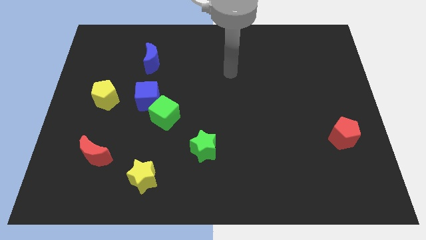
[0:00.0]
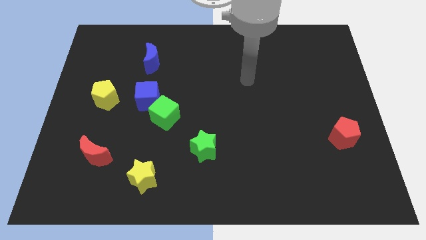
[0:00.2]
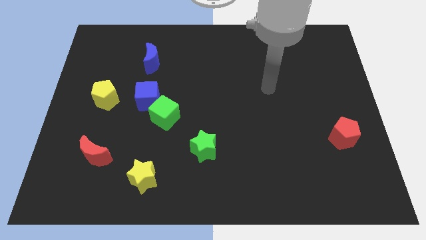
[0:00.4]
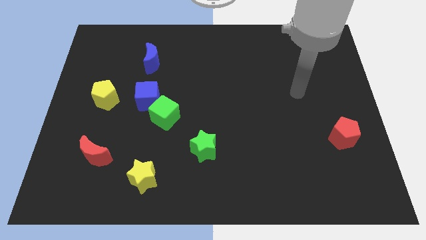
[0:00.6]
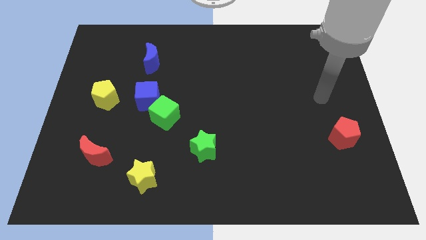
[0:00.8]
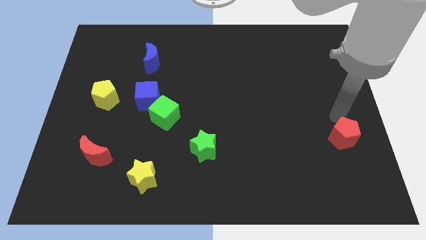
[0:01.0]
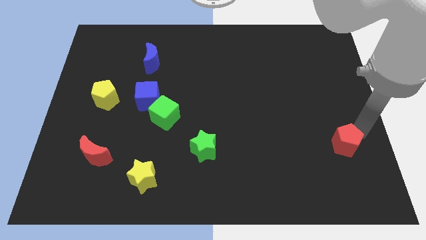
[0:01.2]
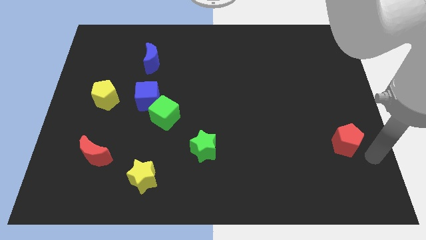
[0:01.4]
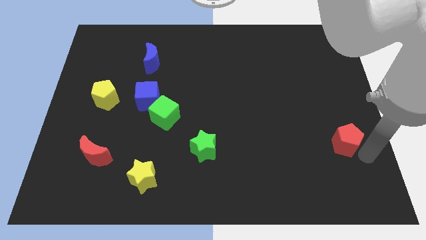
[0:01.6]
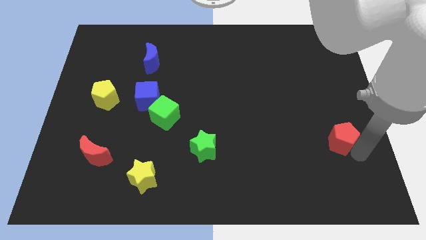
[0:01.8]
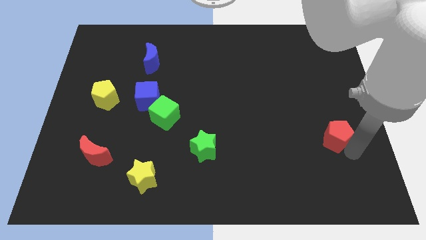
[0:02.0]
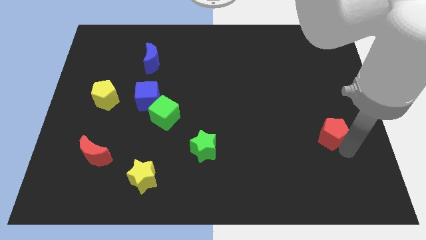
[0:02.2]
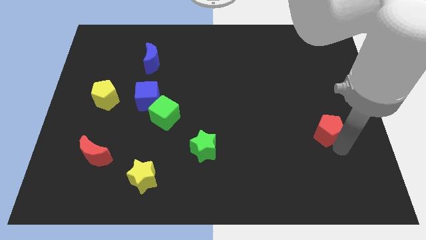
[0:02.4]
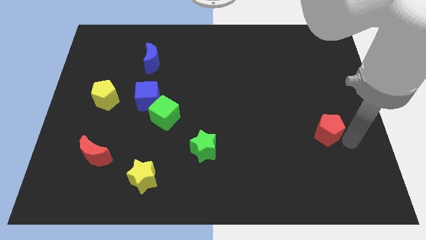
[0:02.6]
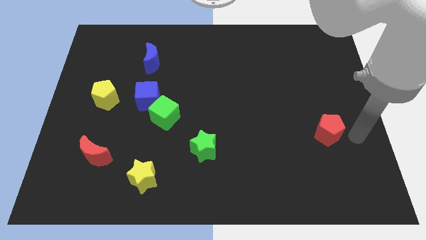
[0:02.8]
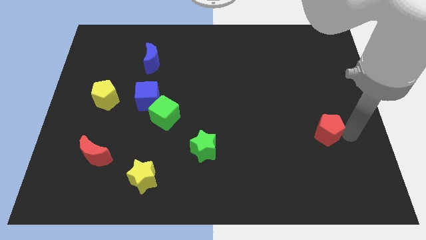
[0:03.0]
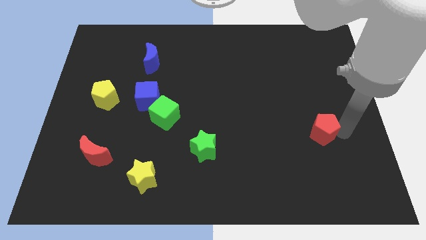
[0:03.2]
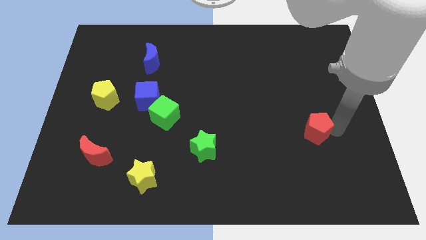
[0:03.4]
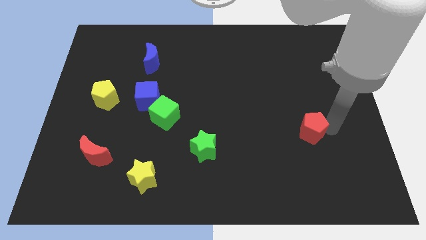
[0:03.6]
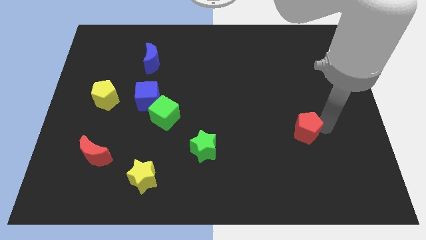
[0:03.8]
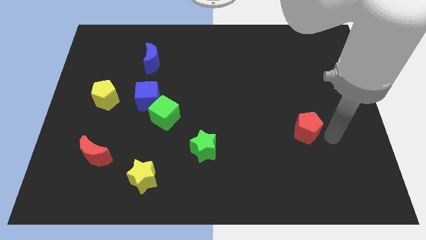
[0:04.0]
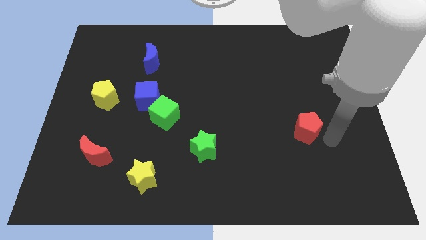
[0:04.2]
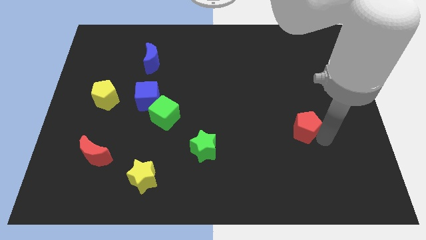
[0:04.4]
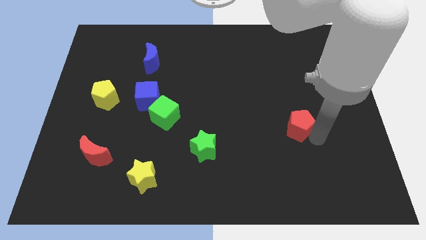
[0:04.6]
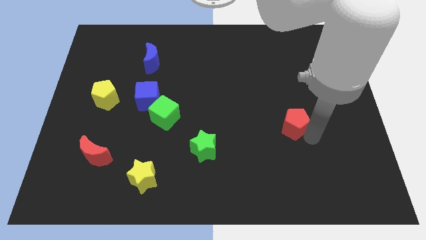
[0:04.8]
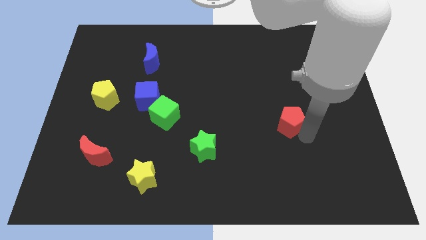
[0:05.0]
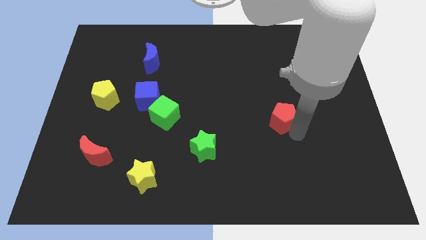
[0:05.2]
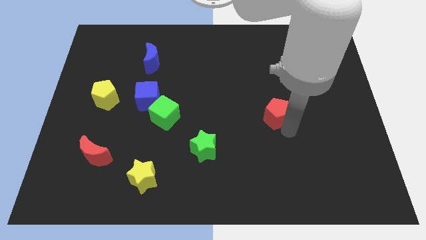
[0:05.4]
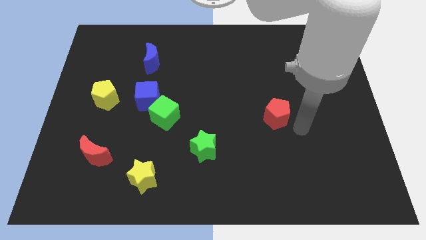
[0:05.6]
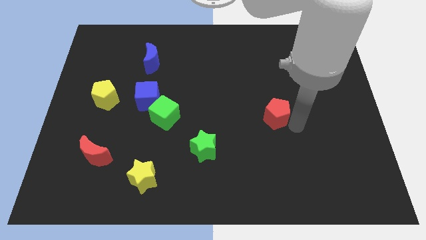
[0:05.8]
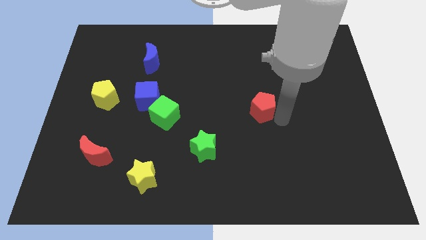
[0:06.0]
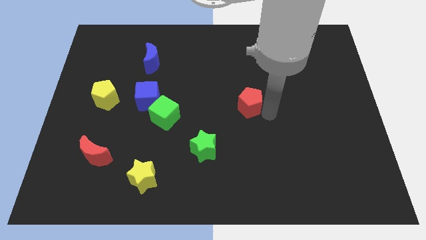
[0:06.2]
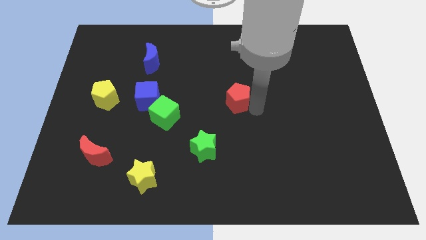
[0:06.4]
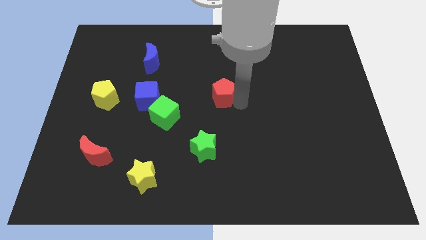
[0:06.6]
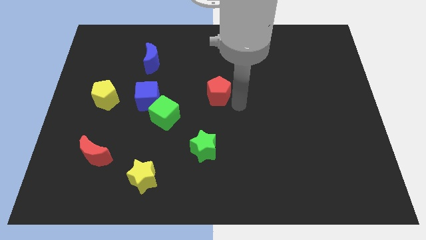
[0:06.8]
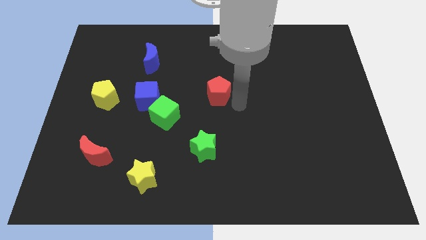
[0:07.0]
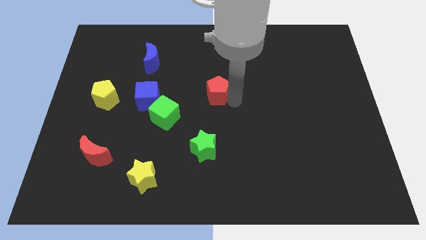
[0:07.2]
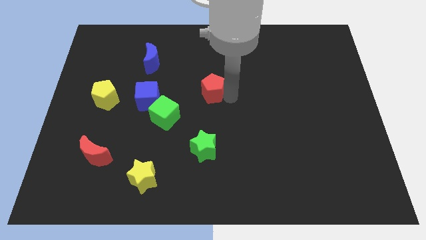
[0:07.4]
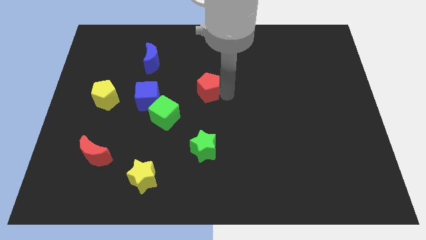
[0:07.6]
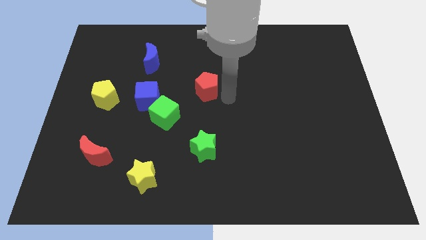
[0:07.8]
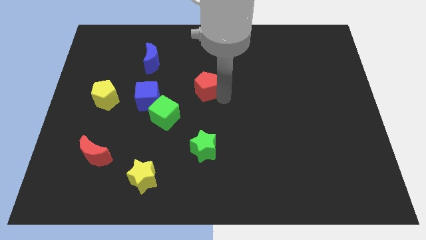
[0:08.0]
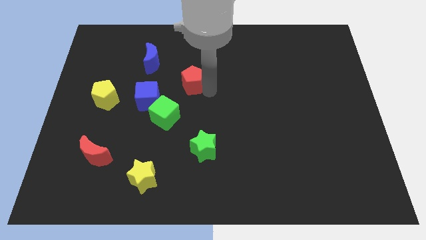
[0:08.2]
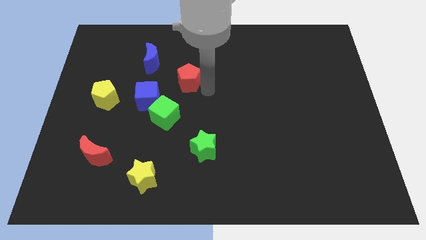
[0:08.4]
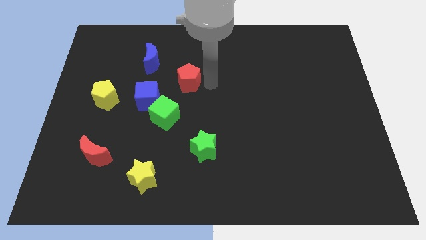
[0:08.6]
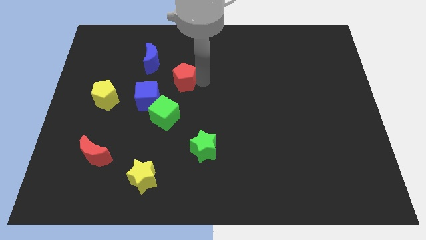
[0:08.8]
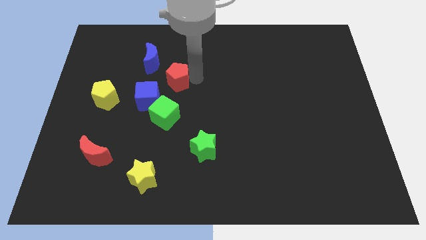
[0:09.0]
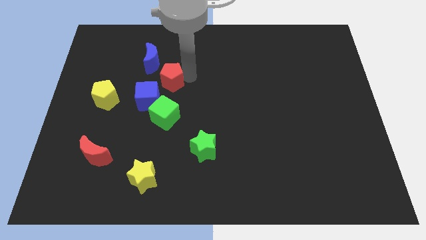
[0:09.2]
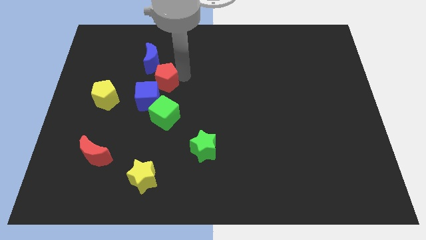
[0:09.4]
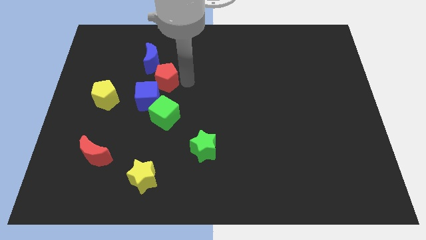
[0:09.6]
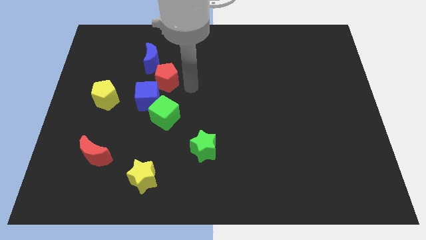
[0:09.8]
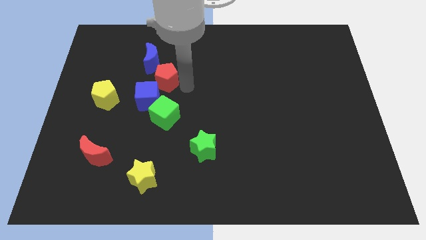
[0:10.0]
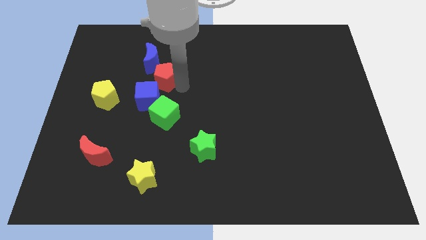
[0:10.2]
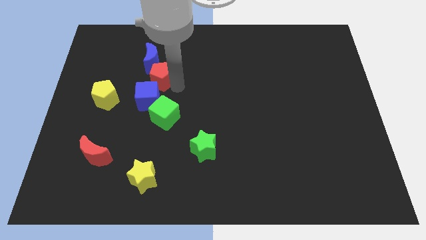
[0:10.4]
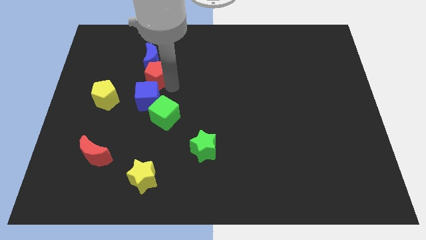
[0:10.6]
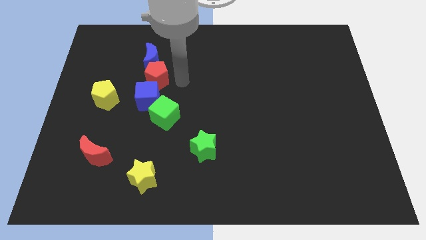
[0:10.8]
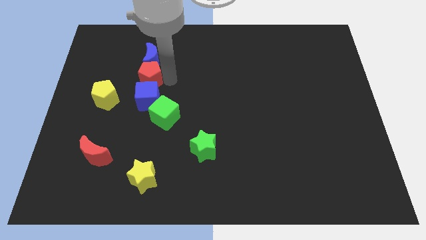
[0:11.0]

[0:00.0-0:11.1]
push the red pentagon to the bottom left side of the blue moon

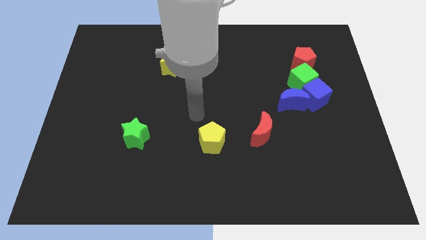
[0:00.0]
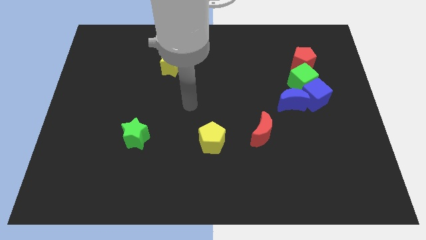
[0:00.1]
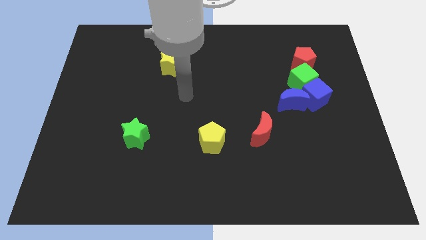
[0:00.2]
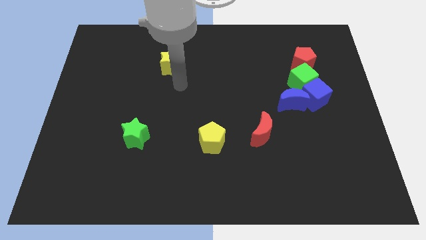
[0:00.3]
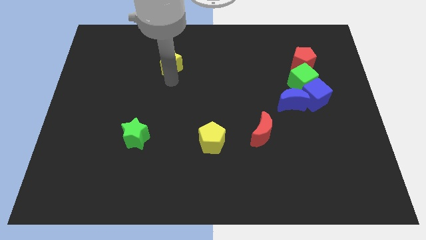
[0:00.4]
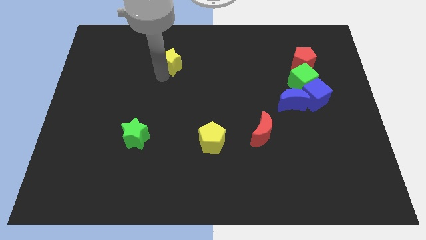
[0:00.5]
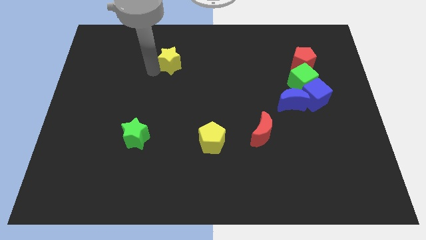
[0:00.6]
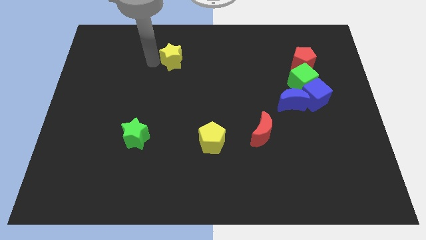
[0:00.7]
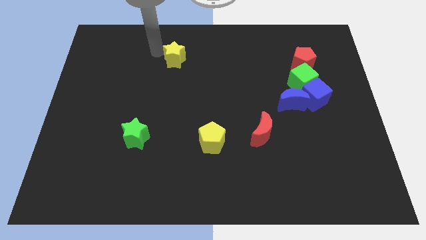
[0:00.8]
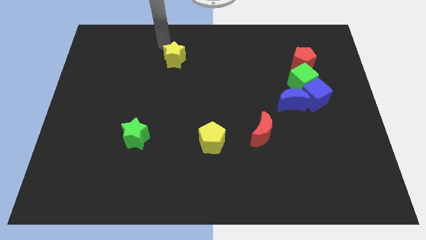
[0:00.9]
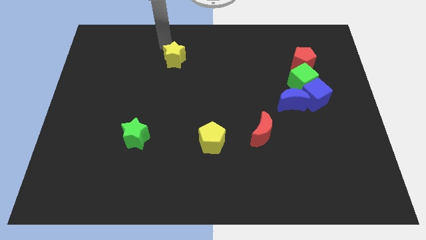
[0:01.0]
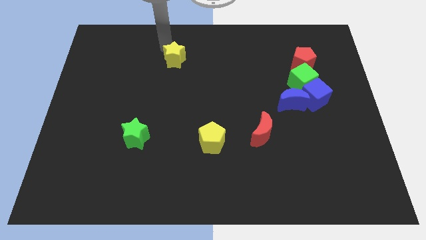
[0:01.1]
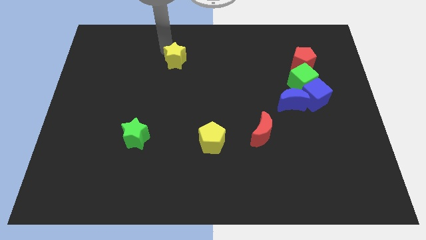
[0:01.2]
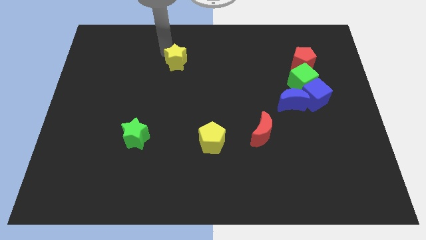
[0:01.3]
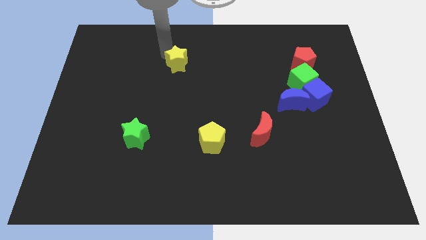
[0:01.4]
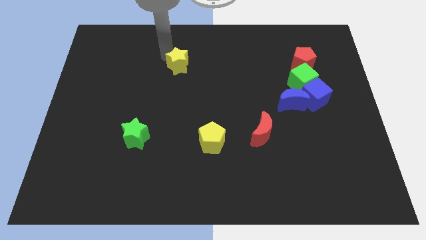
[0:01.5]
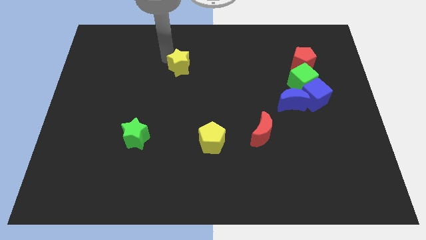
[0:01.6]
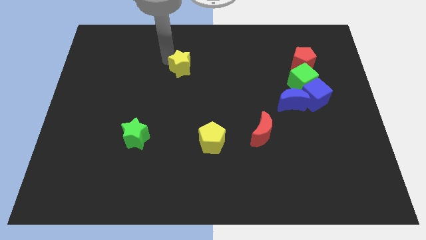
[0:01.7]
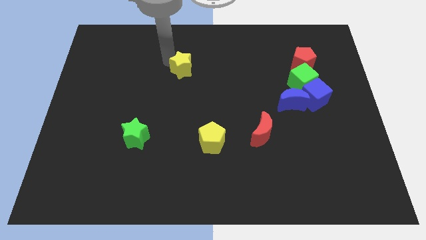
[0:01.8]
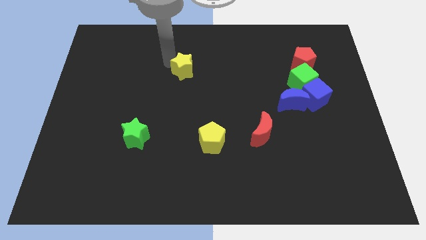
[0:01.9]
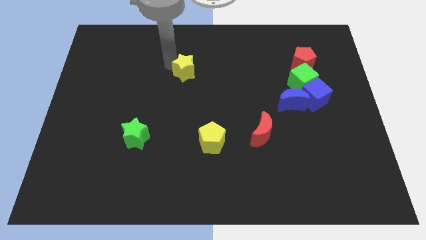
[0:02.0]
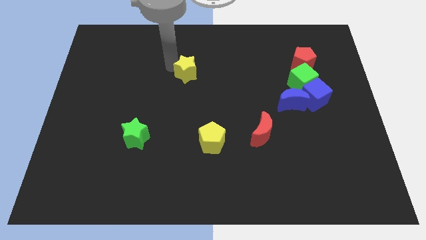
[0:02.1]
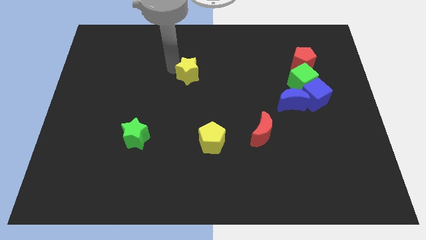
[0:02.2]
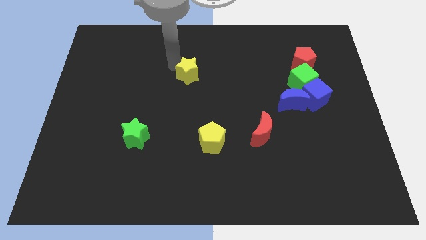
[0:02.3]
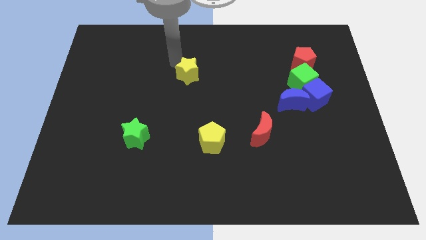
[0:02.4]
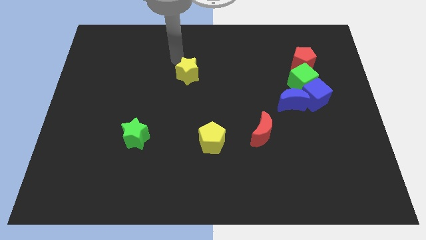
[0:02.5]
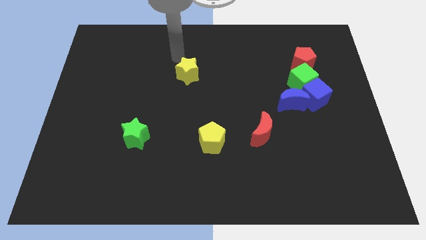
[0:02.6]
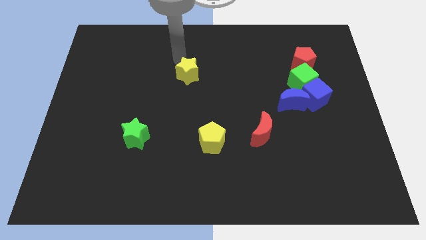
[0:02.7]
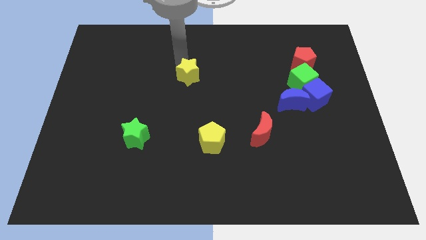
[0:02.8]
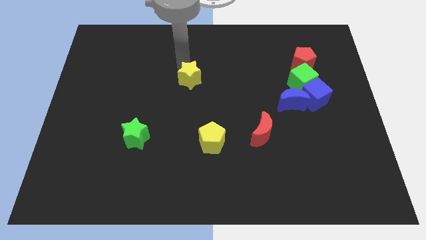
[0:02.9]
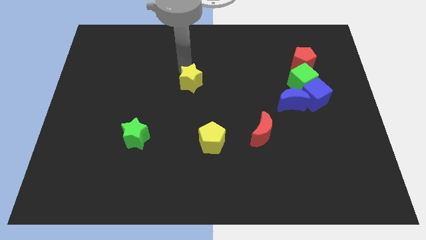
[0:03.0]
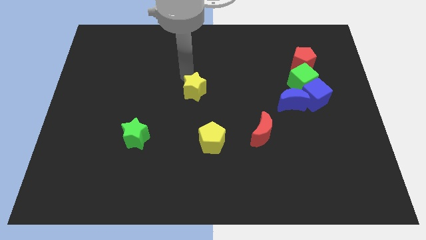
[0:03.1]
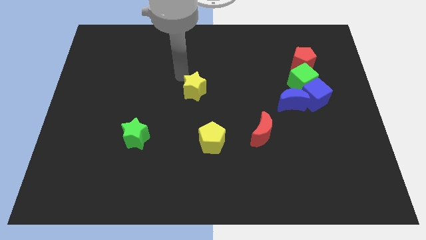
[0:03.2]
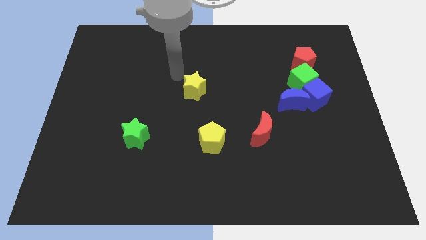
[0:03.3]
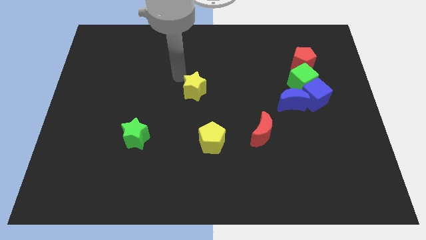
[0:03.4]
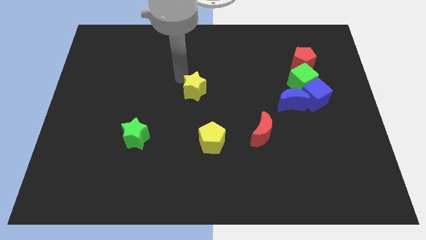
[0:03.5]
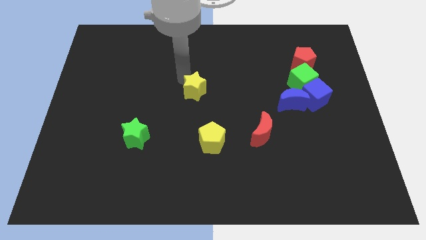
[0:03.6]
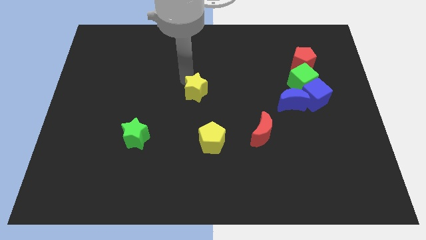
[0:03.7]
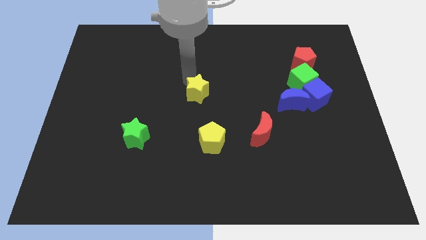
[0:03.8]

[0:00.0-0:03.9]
push the yellow star to the top of the yellow pentagon
